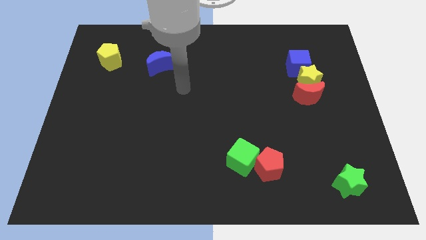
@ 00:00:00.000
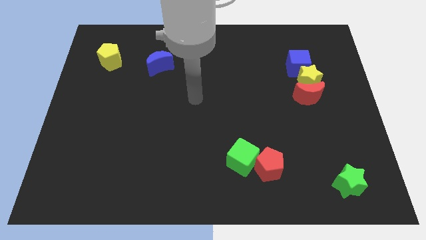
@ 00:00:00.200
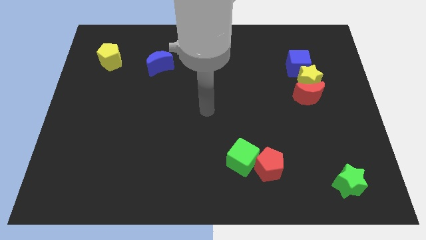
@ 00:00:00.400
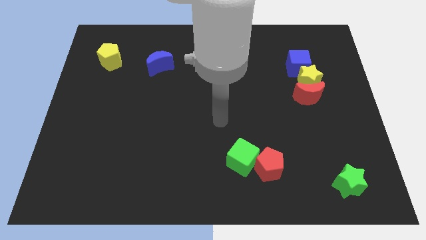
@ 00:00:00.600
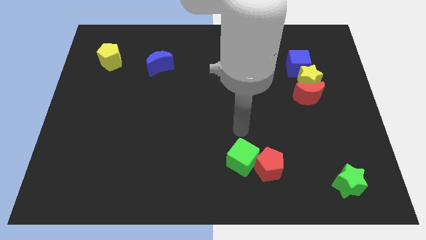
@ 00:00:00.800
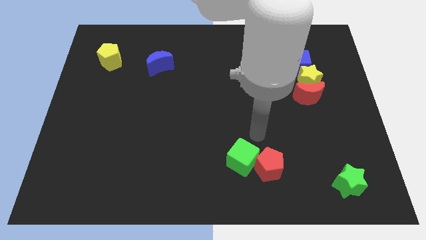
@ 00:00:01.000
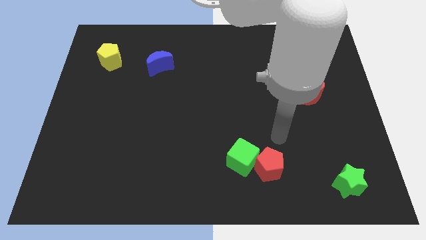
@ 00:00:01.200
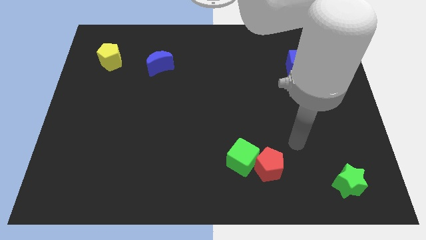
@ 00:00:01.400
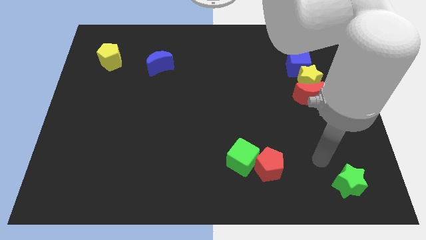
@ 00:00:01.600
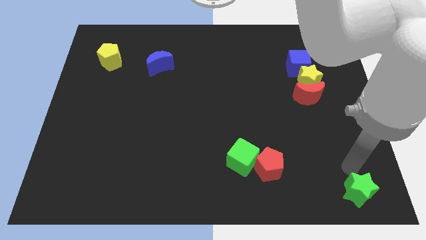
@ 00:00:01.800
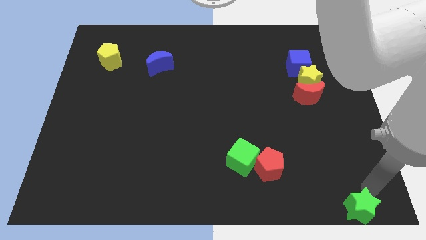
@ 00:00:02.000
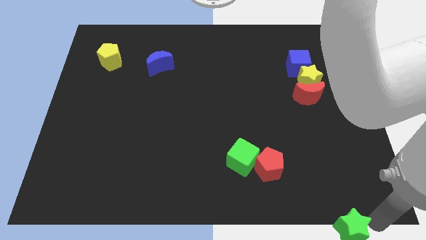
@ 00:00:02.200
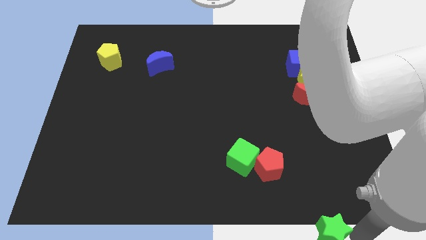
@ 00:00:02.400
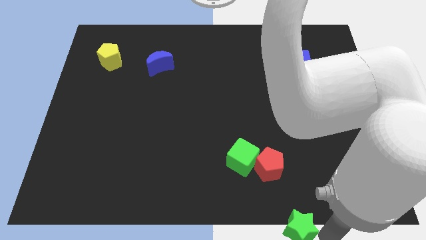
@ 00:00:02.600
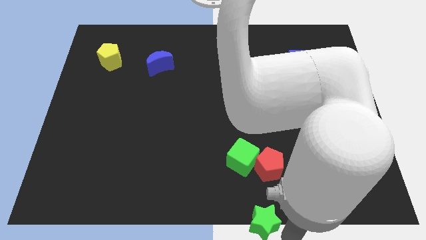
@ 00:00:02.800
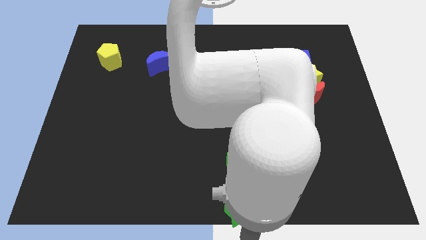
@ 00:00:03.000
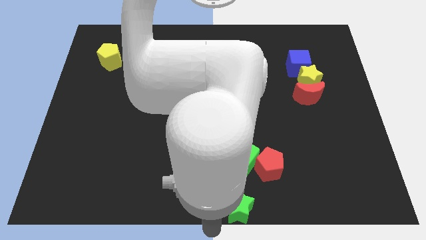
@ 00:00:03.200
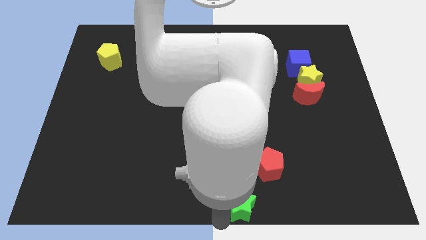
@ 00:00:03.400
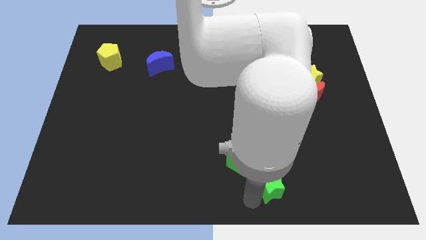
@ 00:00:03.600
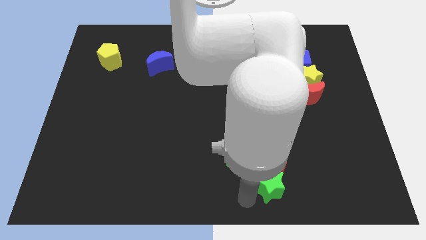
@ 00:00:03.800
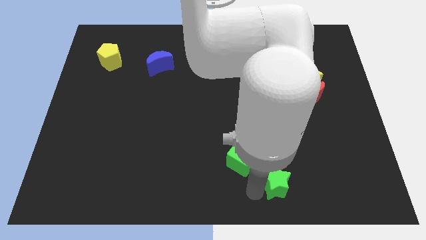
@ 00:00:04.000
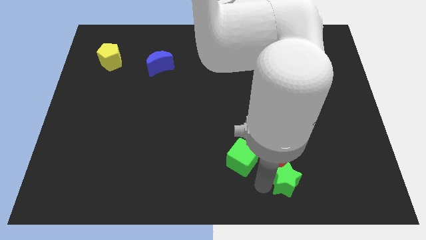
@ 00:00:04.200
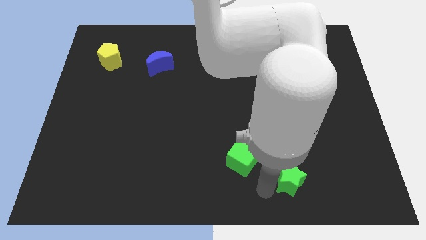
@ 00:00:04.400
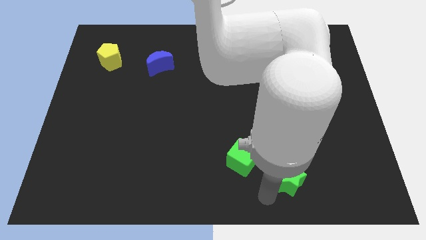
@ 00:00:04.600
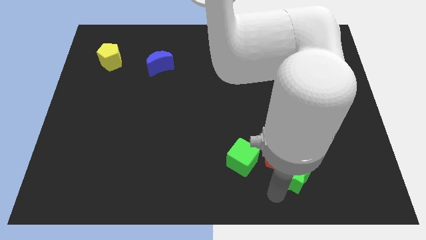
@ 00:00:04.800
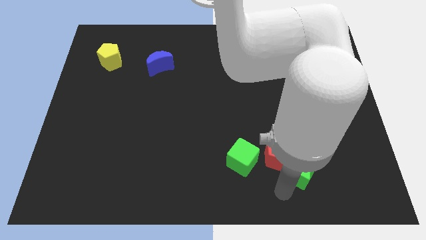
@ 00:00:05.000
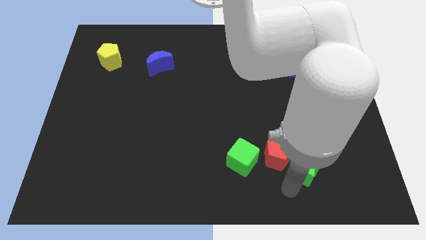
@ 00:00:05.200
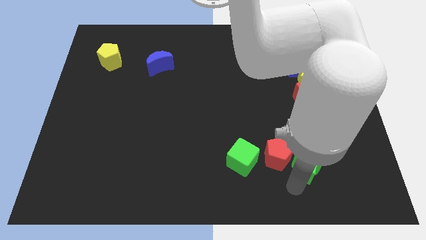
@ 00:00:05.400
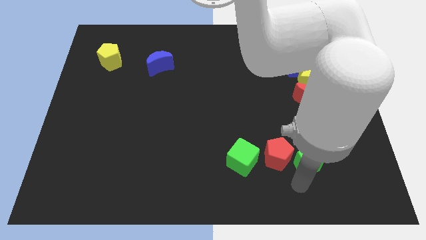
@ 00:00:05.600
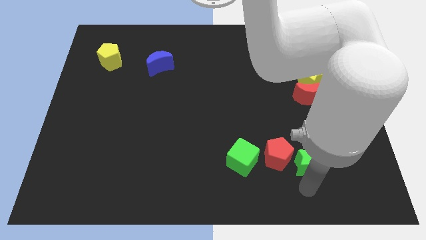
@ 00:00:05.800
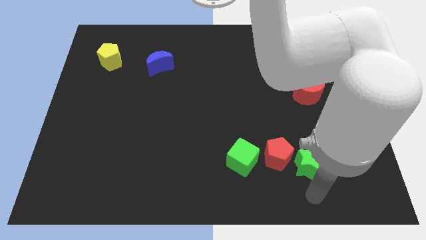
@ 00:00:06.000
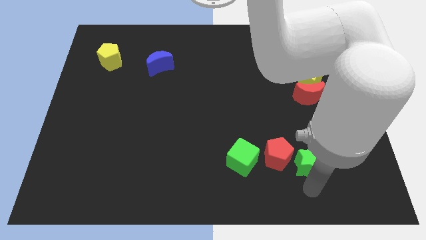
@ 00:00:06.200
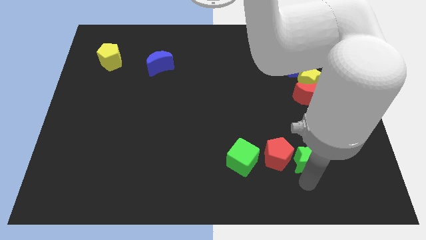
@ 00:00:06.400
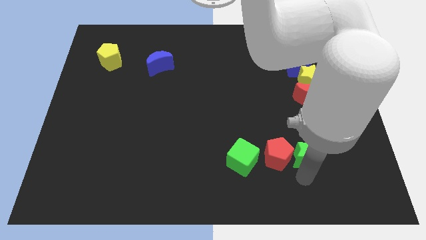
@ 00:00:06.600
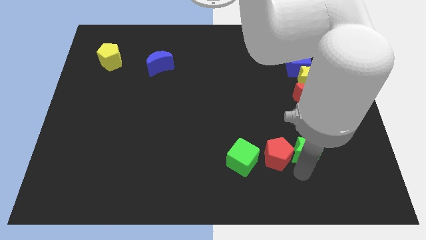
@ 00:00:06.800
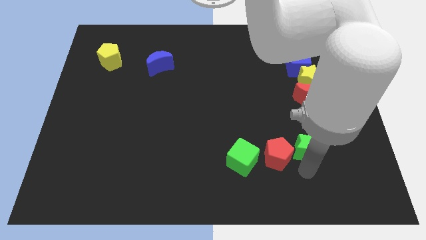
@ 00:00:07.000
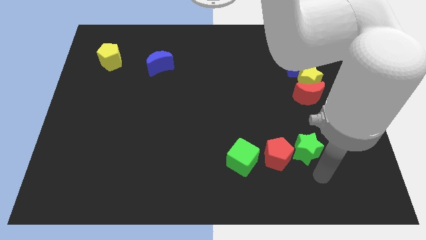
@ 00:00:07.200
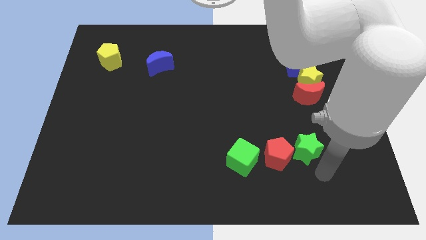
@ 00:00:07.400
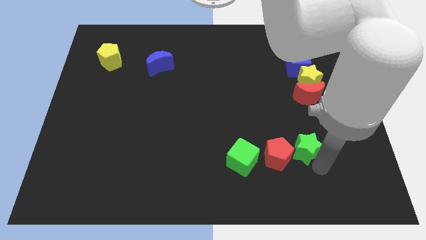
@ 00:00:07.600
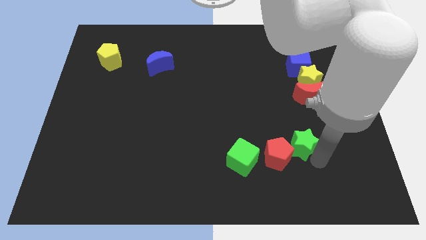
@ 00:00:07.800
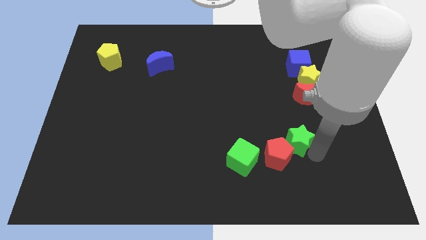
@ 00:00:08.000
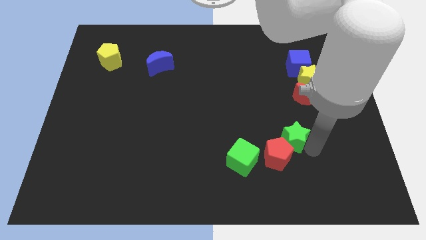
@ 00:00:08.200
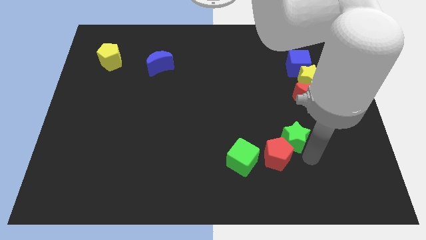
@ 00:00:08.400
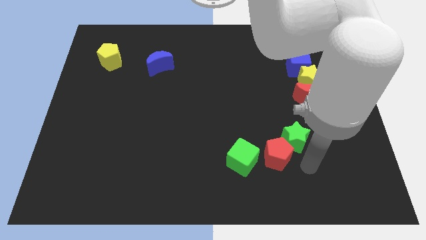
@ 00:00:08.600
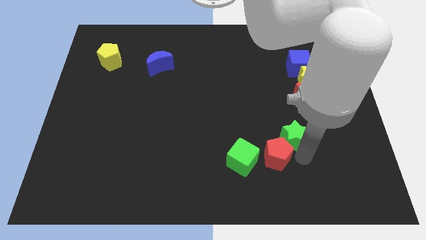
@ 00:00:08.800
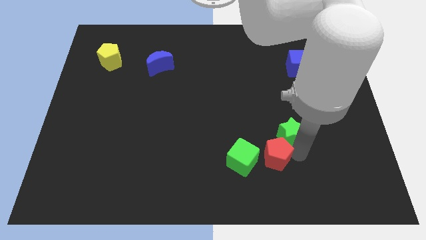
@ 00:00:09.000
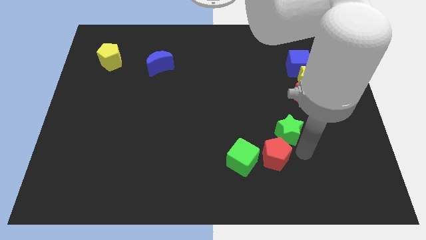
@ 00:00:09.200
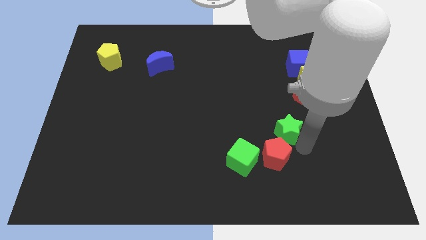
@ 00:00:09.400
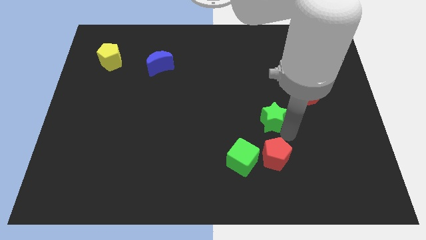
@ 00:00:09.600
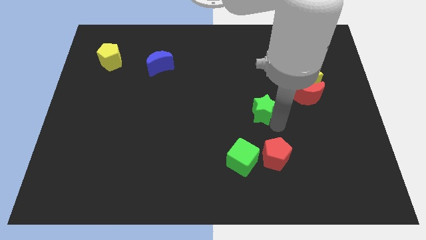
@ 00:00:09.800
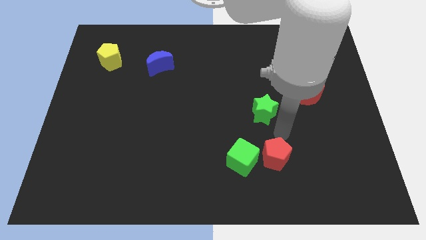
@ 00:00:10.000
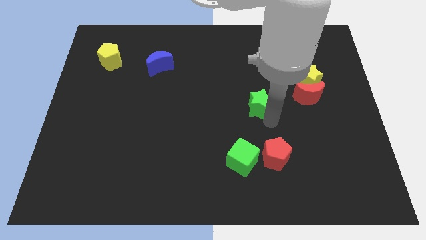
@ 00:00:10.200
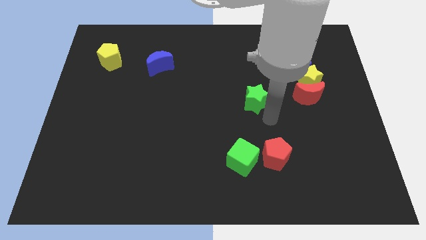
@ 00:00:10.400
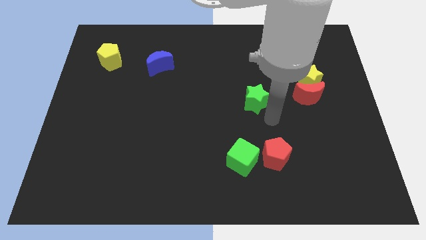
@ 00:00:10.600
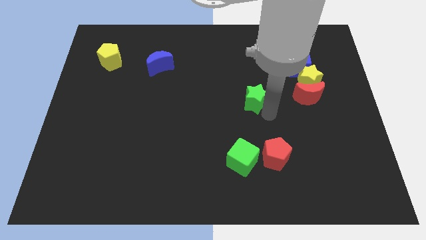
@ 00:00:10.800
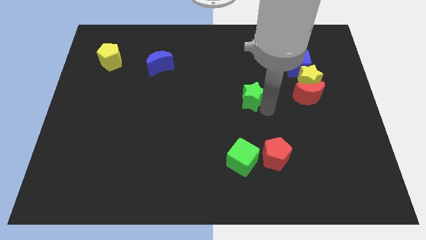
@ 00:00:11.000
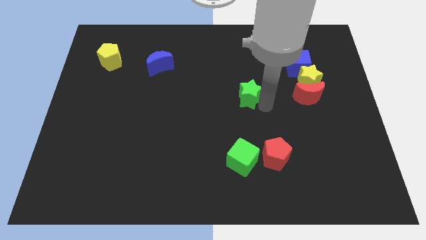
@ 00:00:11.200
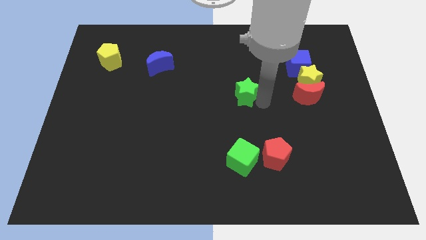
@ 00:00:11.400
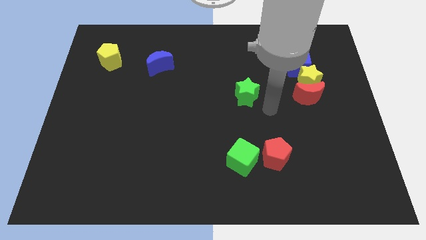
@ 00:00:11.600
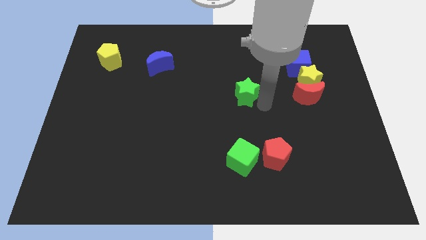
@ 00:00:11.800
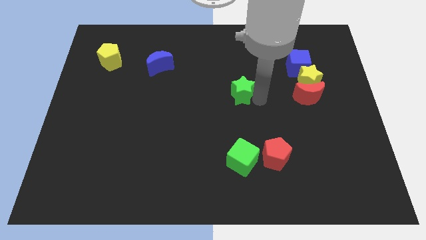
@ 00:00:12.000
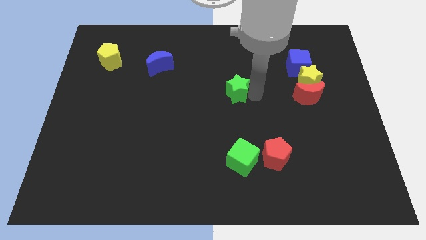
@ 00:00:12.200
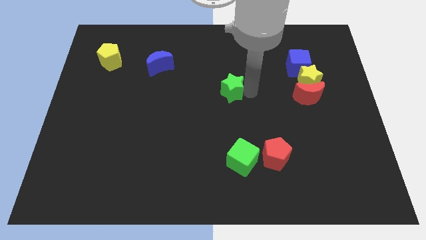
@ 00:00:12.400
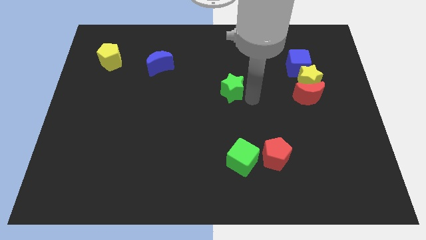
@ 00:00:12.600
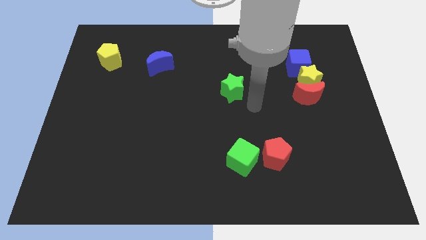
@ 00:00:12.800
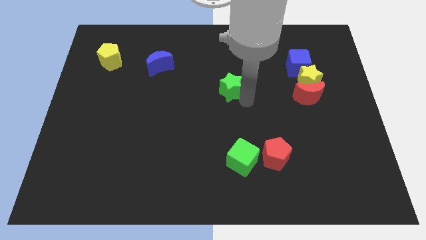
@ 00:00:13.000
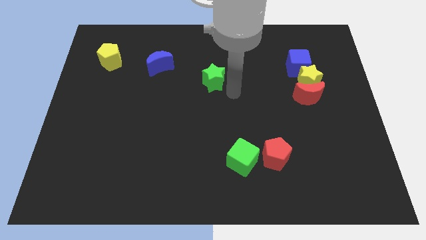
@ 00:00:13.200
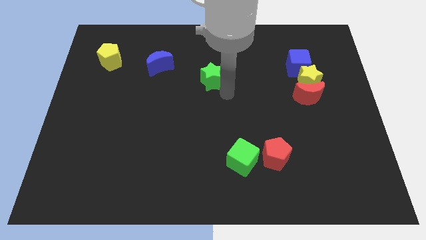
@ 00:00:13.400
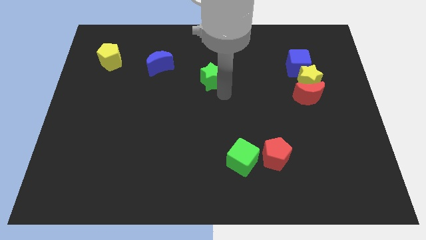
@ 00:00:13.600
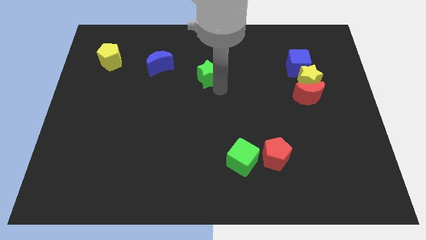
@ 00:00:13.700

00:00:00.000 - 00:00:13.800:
slide the green star just right of the blue moon

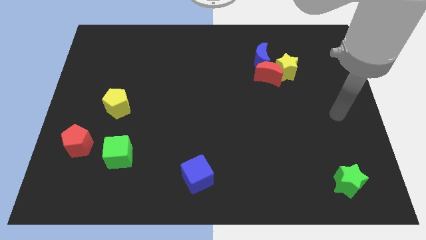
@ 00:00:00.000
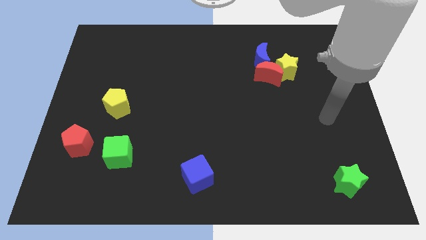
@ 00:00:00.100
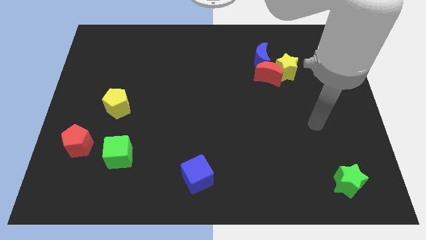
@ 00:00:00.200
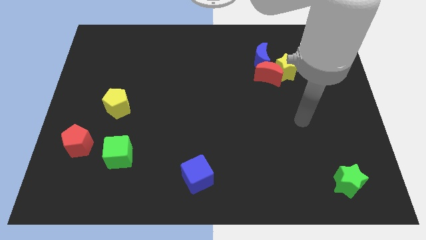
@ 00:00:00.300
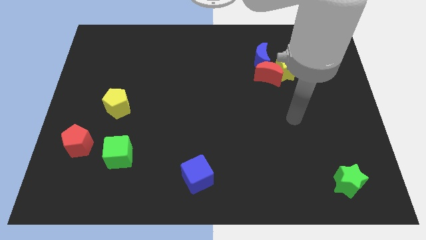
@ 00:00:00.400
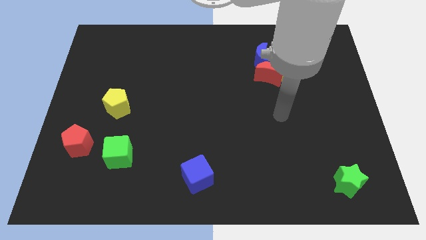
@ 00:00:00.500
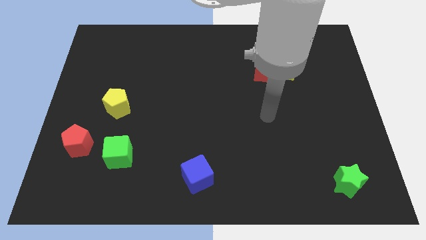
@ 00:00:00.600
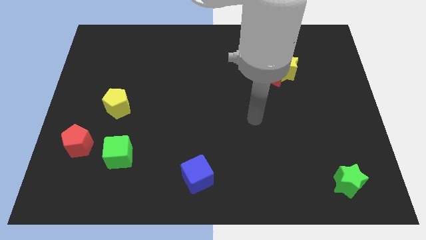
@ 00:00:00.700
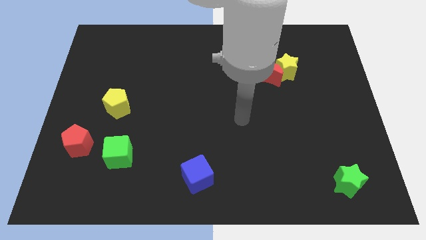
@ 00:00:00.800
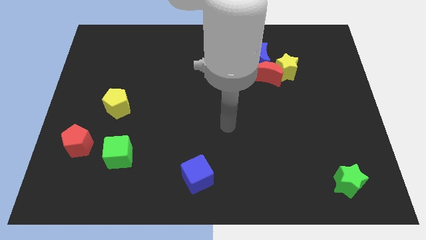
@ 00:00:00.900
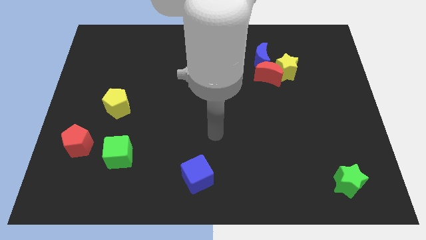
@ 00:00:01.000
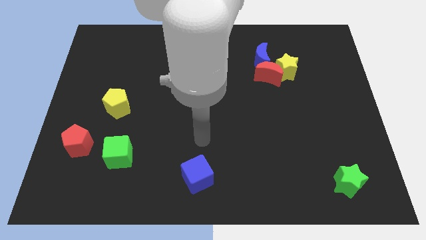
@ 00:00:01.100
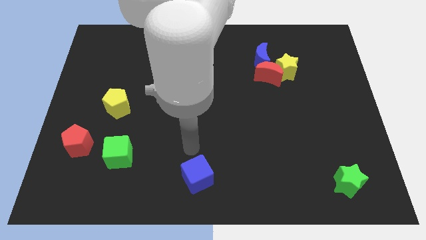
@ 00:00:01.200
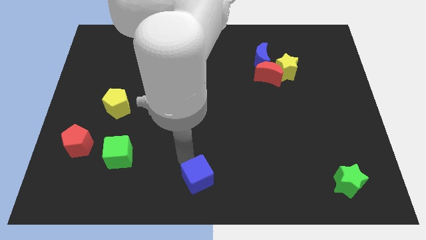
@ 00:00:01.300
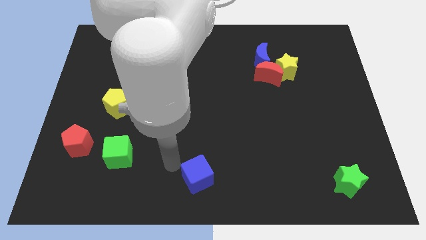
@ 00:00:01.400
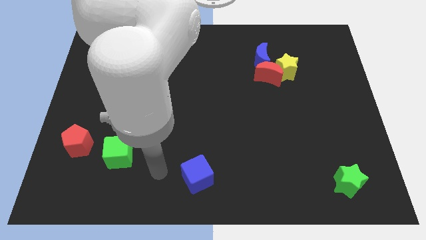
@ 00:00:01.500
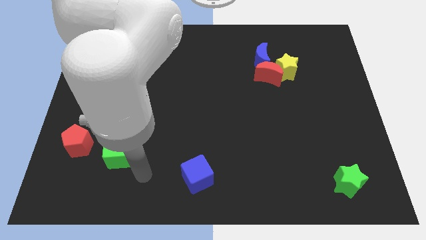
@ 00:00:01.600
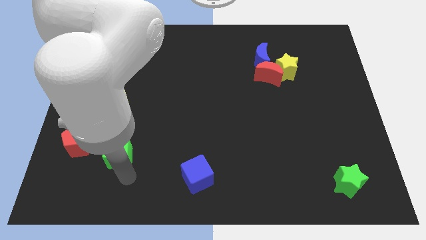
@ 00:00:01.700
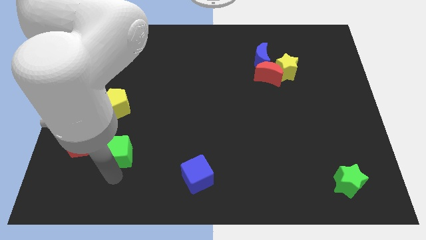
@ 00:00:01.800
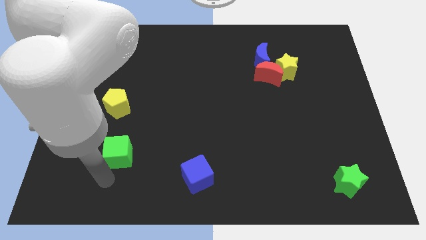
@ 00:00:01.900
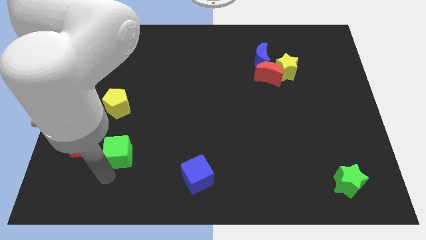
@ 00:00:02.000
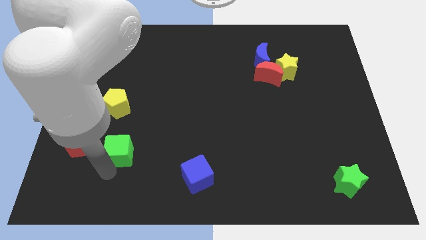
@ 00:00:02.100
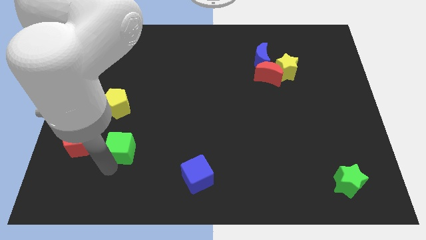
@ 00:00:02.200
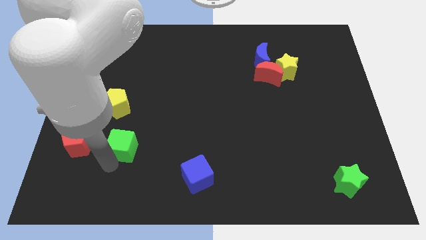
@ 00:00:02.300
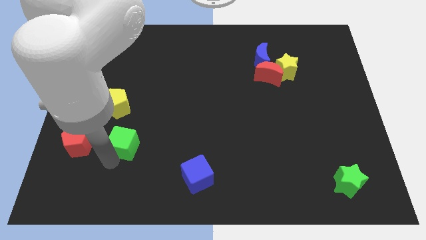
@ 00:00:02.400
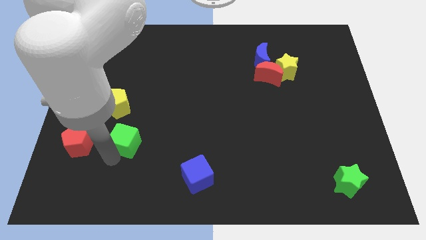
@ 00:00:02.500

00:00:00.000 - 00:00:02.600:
put the green cube to the bottom right of the yellow pentagon
